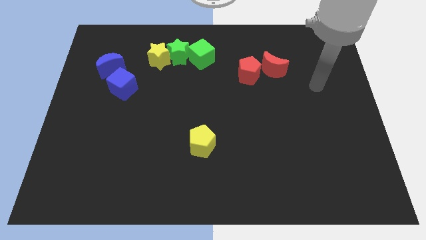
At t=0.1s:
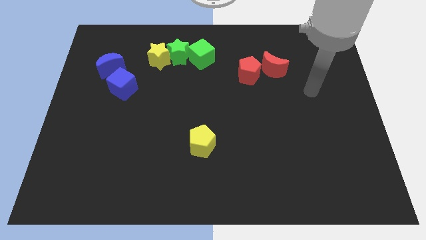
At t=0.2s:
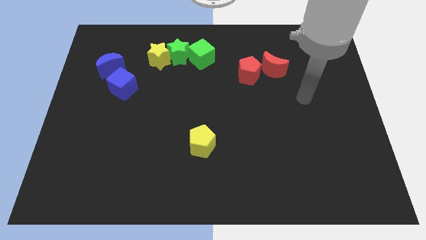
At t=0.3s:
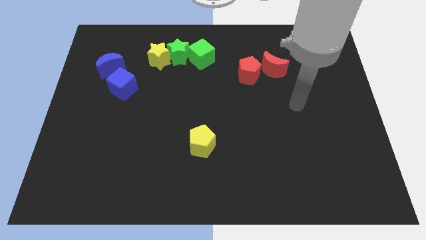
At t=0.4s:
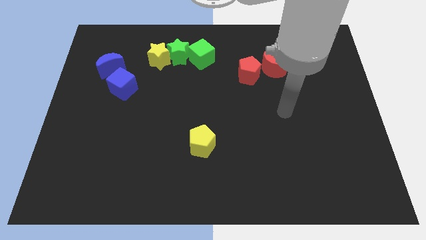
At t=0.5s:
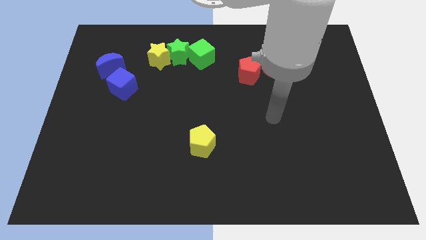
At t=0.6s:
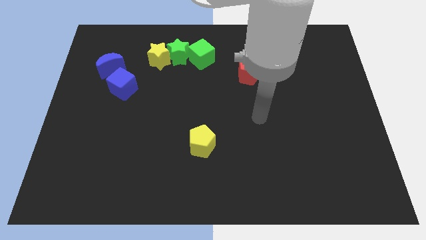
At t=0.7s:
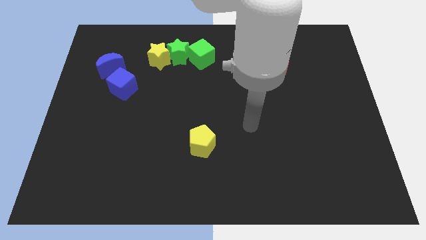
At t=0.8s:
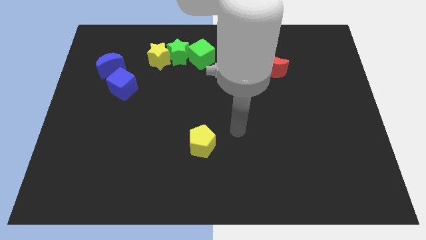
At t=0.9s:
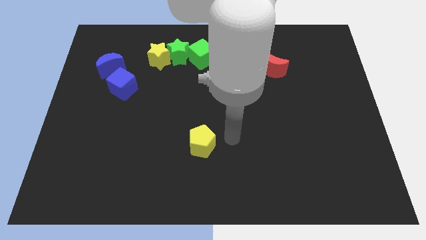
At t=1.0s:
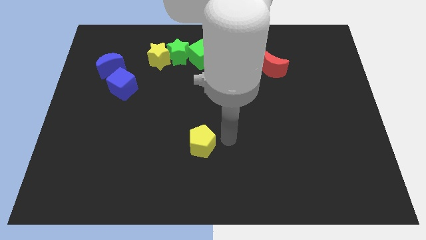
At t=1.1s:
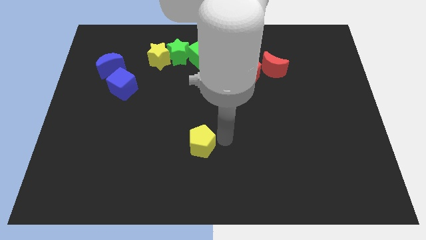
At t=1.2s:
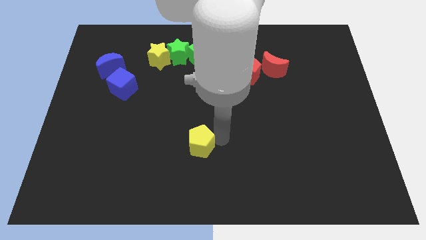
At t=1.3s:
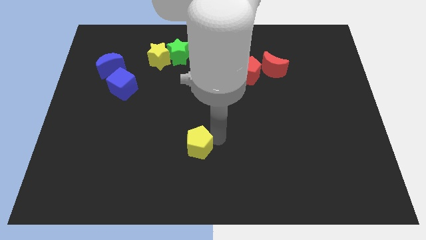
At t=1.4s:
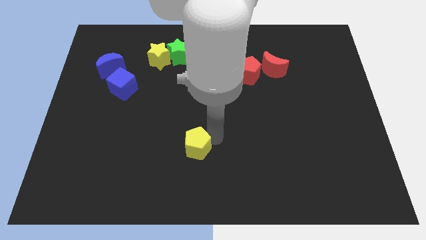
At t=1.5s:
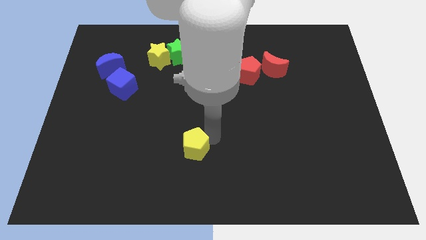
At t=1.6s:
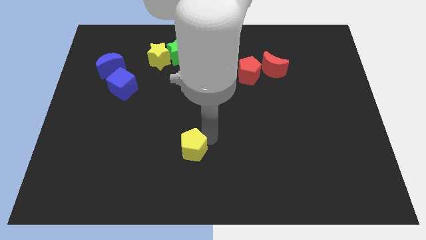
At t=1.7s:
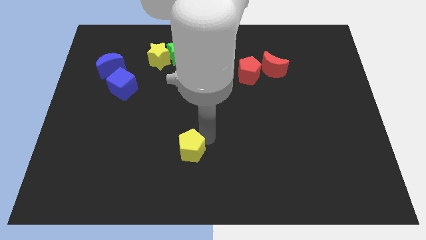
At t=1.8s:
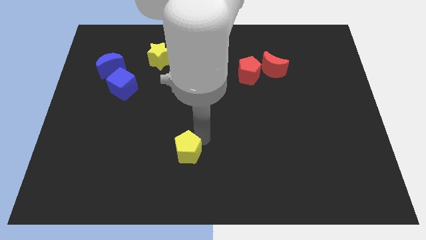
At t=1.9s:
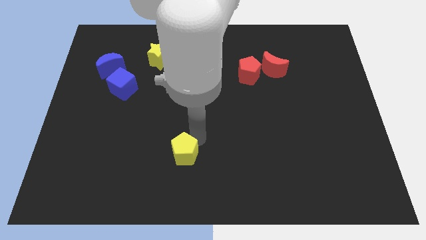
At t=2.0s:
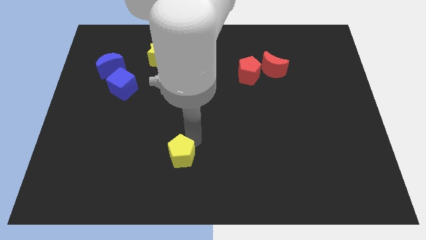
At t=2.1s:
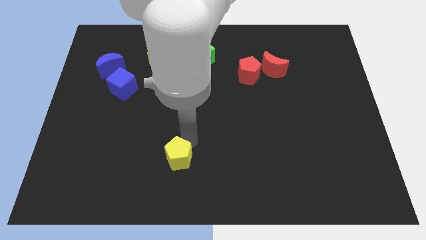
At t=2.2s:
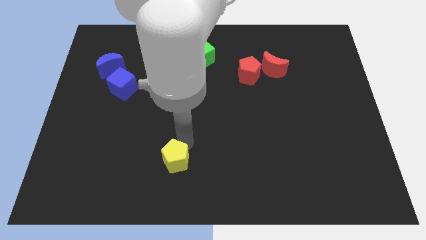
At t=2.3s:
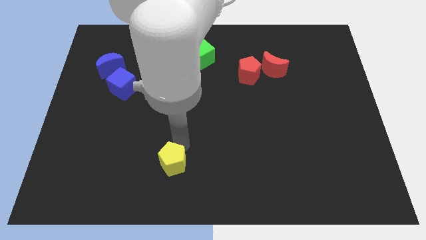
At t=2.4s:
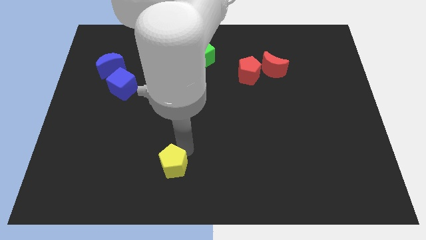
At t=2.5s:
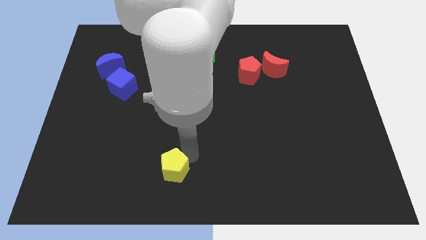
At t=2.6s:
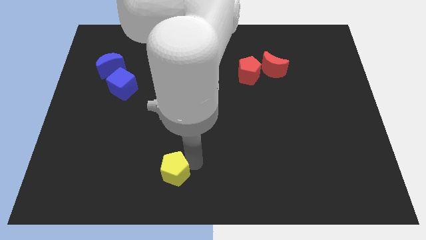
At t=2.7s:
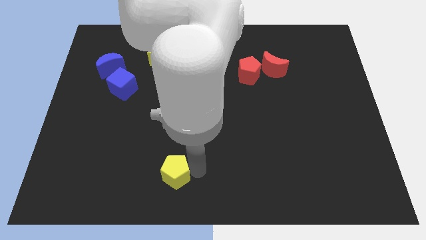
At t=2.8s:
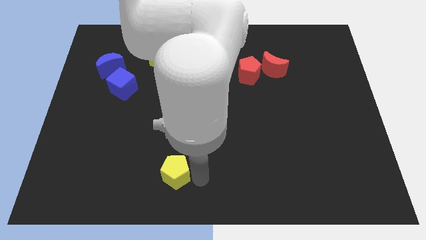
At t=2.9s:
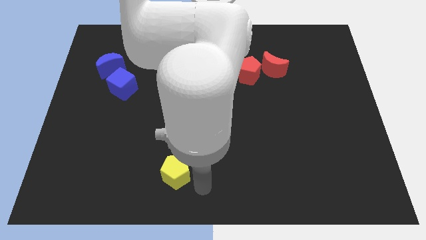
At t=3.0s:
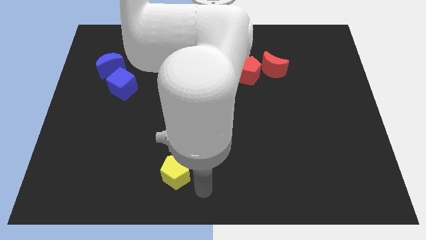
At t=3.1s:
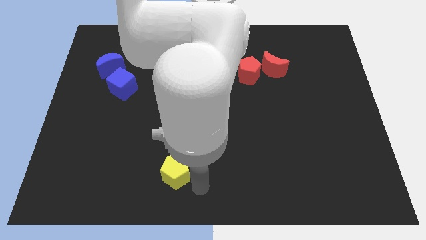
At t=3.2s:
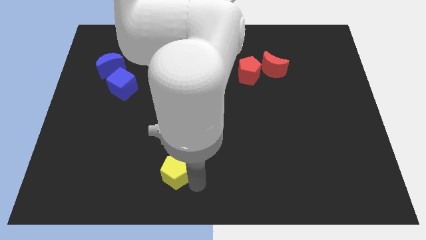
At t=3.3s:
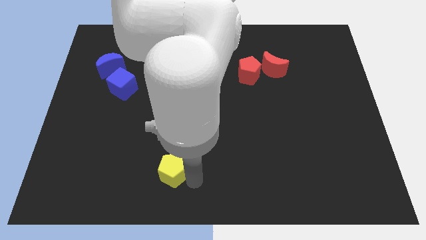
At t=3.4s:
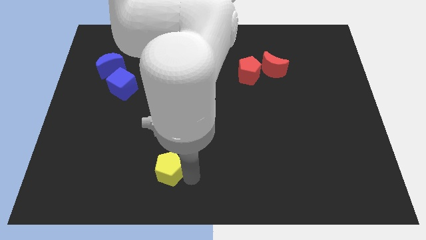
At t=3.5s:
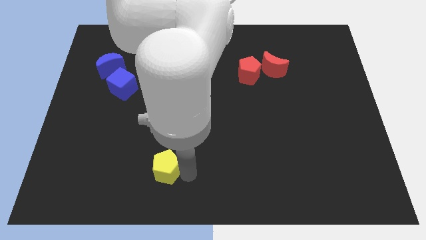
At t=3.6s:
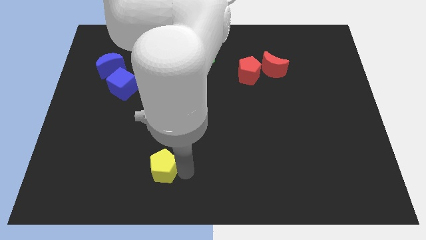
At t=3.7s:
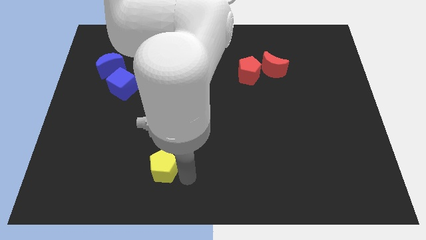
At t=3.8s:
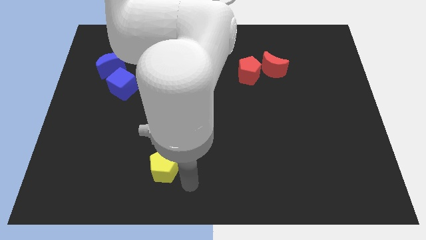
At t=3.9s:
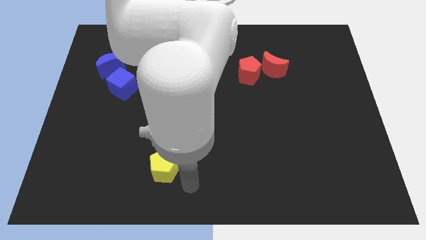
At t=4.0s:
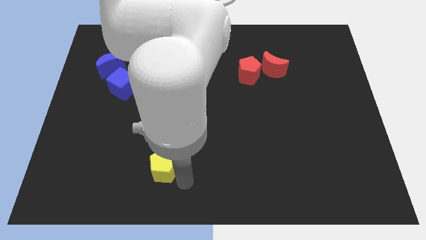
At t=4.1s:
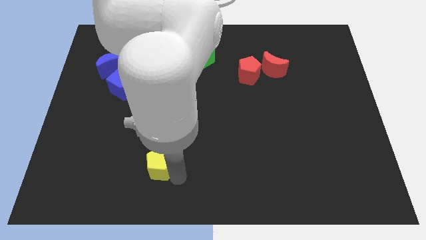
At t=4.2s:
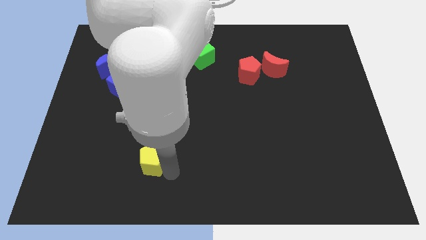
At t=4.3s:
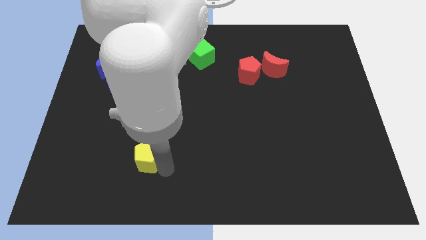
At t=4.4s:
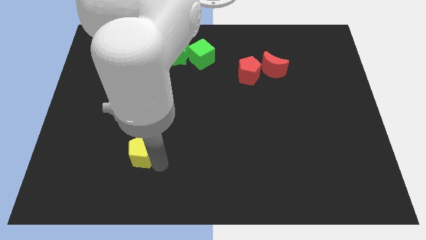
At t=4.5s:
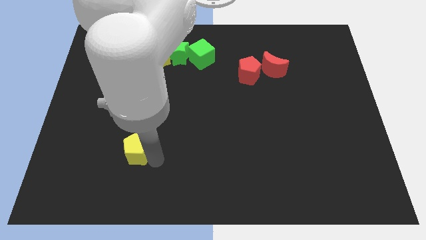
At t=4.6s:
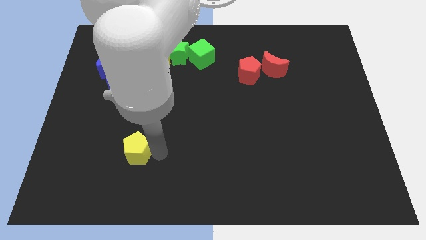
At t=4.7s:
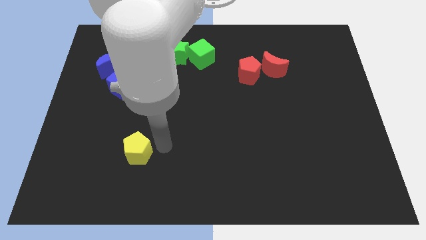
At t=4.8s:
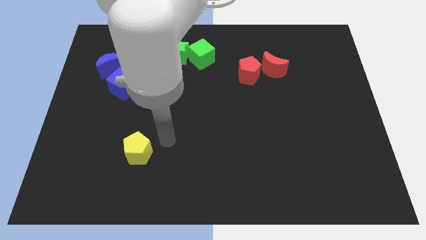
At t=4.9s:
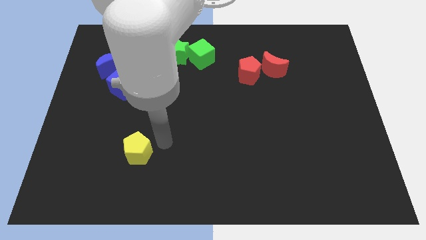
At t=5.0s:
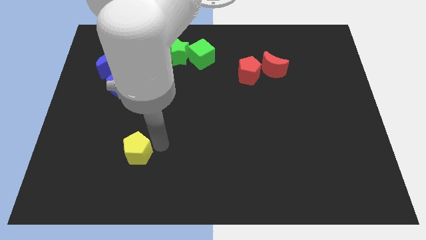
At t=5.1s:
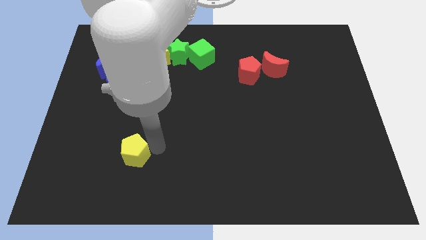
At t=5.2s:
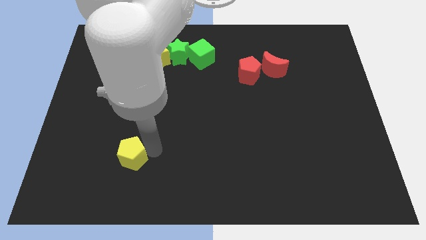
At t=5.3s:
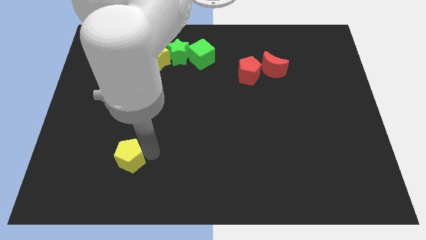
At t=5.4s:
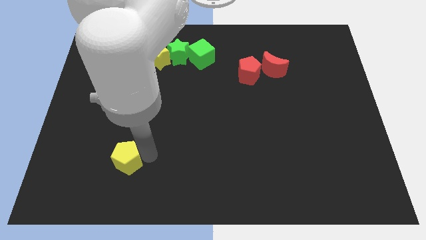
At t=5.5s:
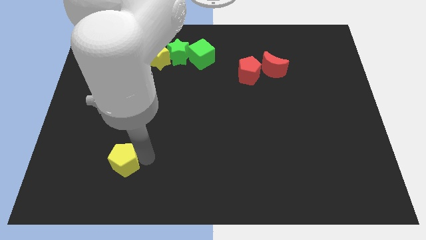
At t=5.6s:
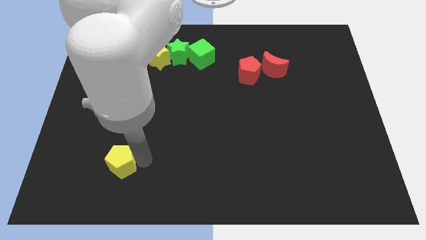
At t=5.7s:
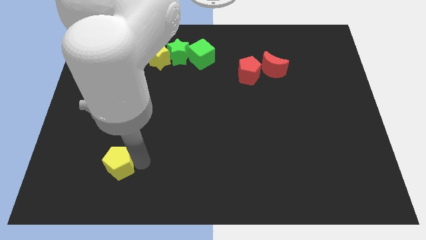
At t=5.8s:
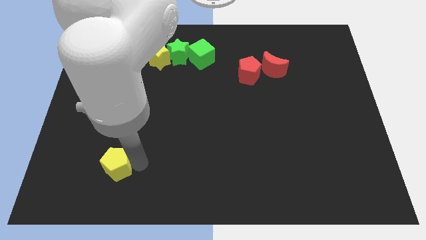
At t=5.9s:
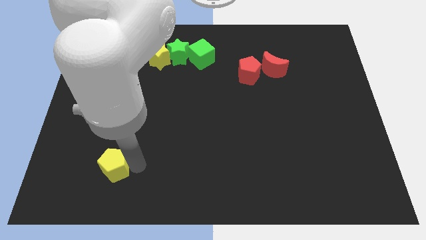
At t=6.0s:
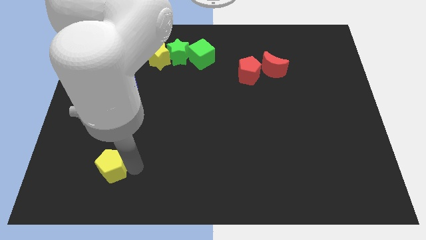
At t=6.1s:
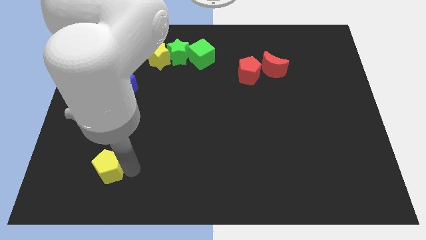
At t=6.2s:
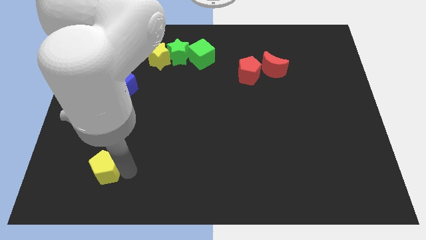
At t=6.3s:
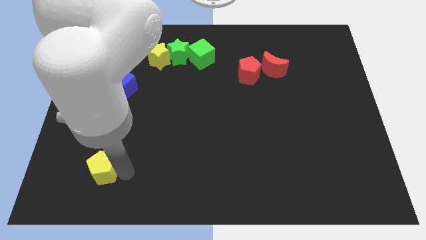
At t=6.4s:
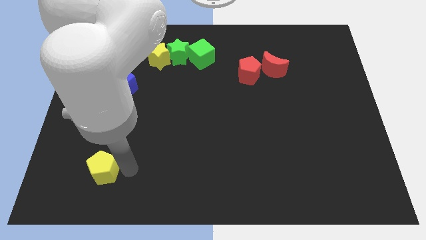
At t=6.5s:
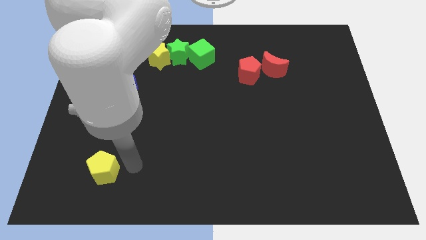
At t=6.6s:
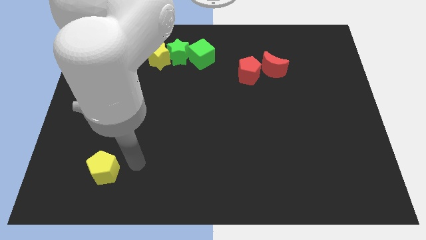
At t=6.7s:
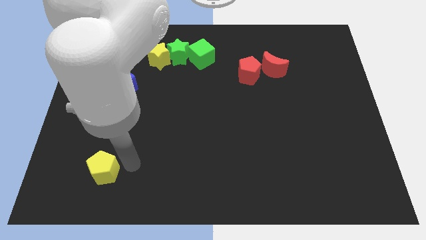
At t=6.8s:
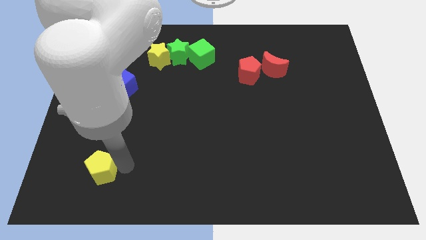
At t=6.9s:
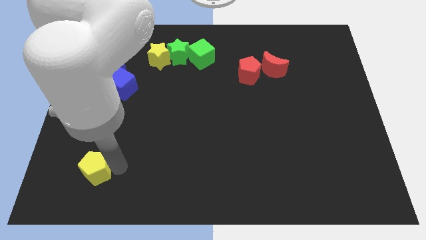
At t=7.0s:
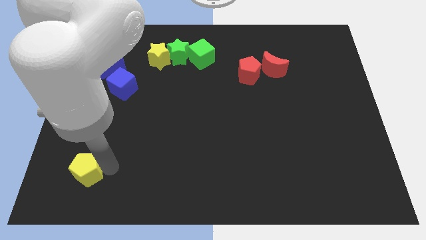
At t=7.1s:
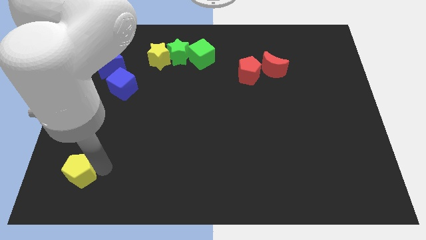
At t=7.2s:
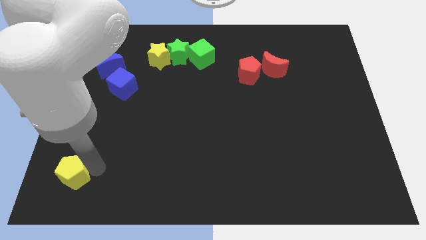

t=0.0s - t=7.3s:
push the yellow pentagon to the bottom left corner
